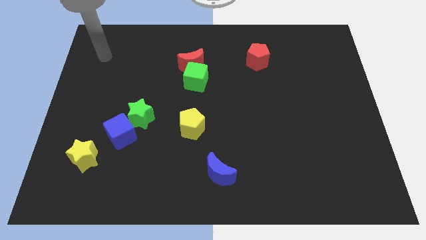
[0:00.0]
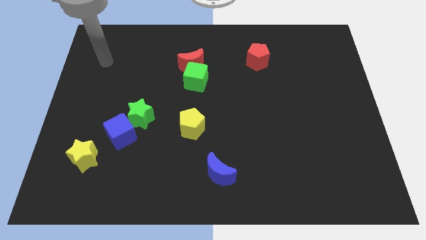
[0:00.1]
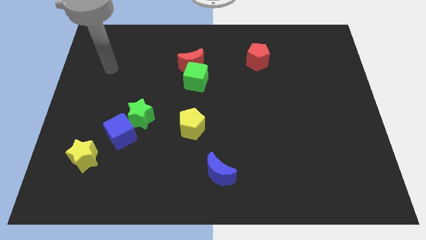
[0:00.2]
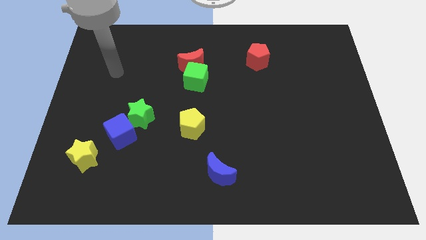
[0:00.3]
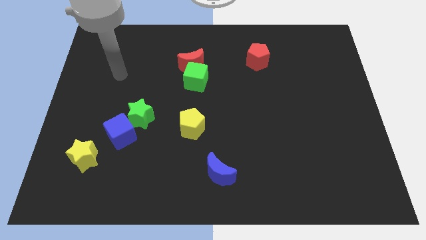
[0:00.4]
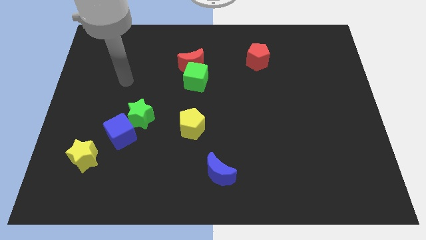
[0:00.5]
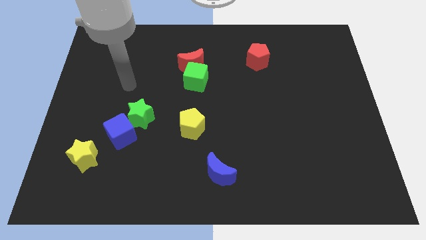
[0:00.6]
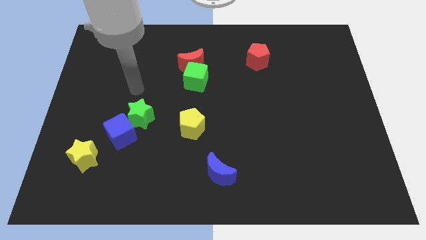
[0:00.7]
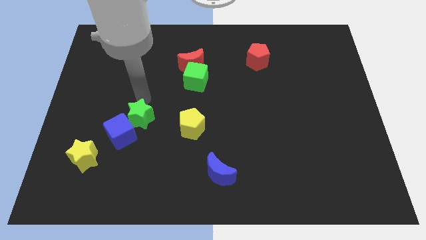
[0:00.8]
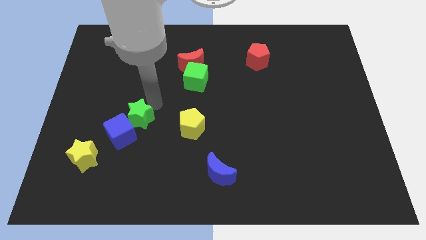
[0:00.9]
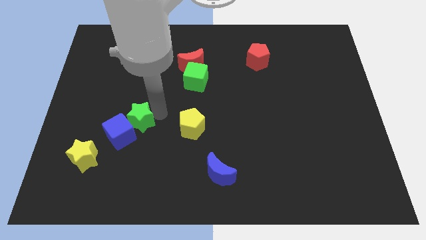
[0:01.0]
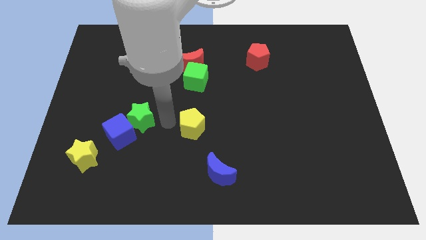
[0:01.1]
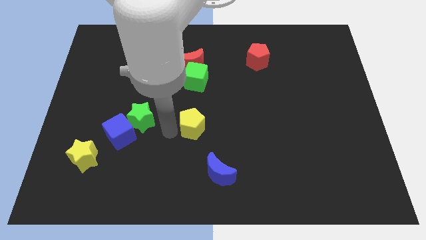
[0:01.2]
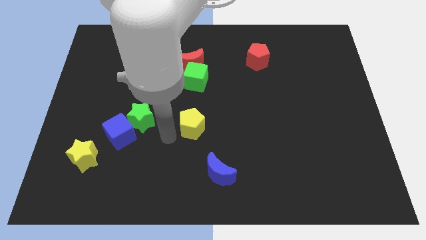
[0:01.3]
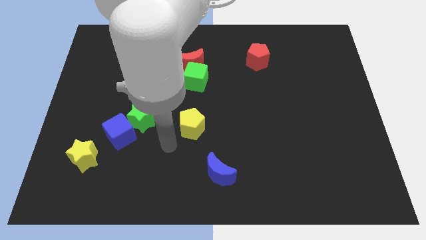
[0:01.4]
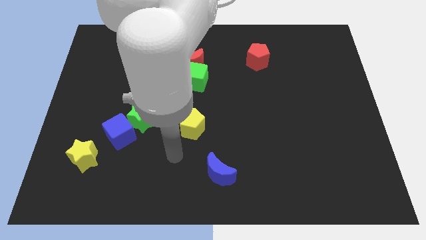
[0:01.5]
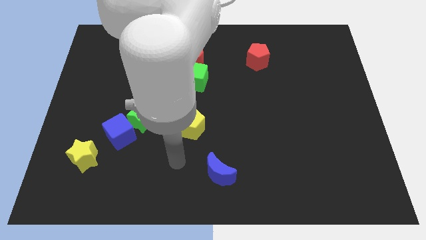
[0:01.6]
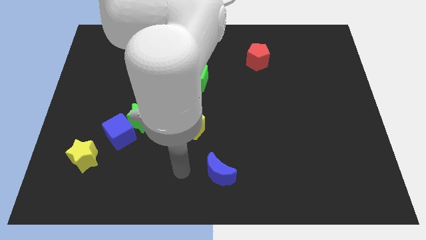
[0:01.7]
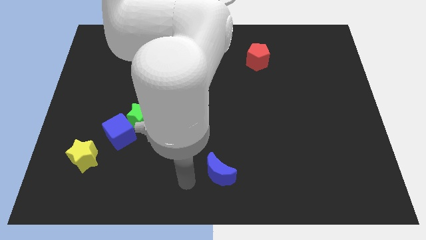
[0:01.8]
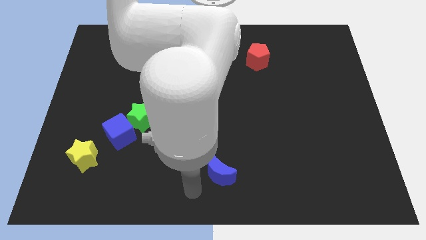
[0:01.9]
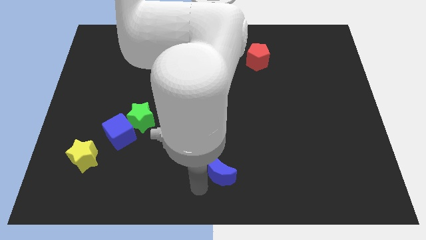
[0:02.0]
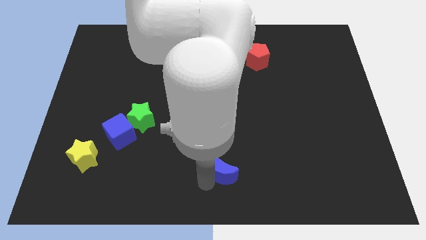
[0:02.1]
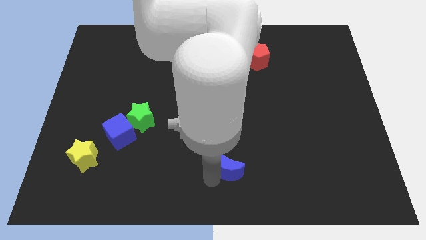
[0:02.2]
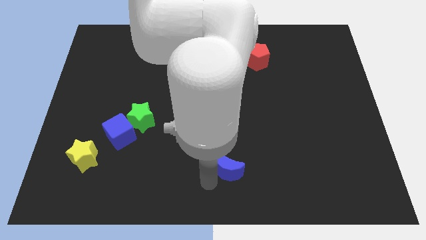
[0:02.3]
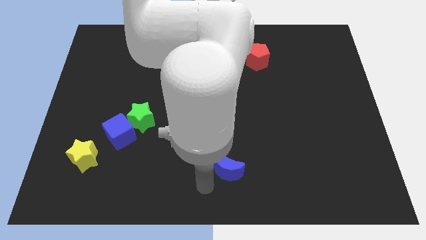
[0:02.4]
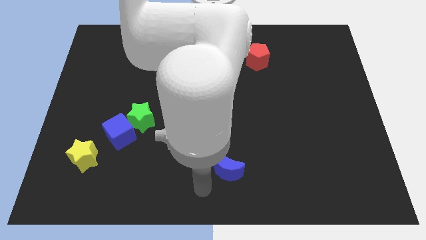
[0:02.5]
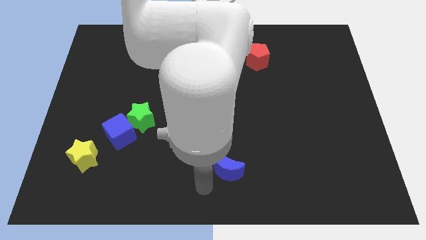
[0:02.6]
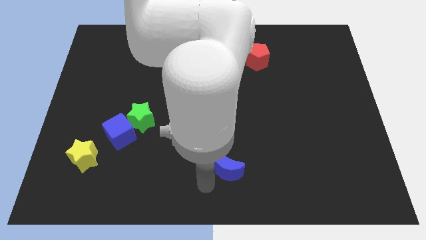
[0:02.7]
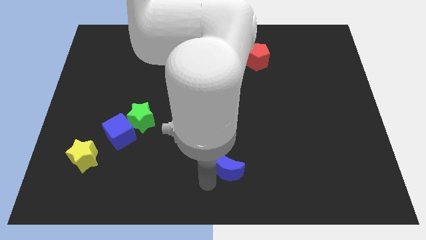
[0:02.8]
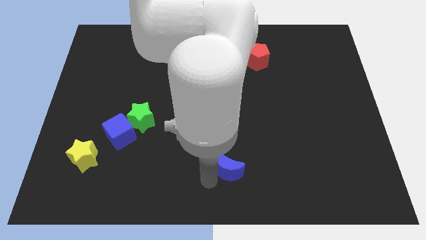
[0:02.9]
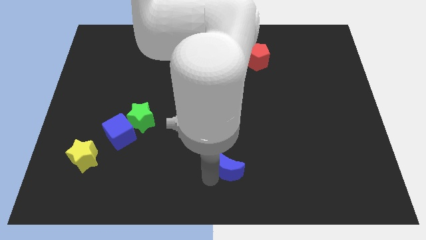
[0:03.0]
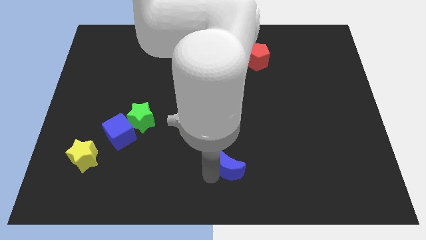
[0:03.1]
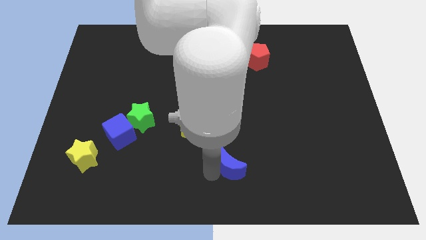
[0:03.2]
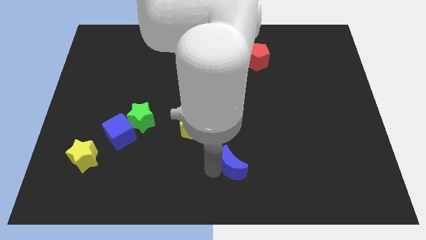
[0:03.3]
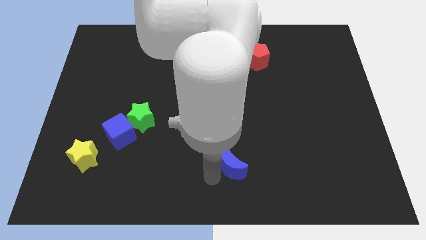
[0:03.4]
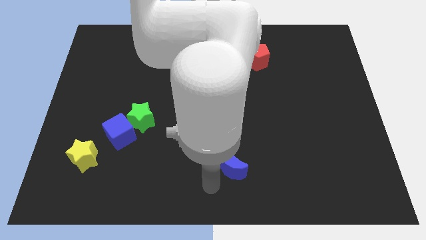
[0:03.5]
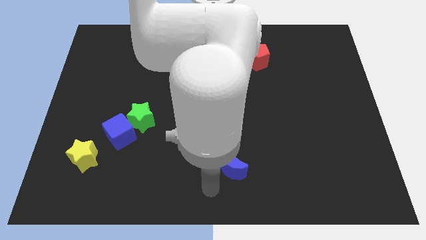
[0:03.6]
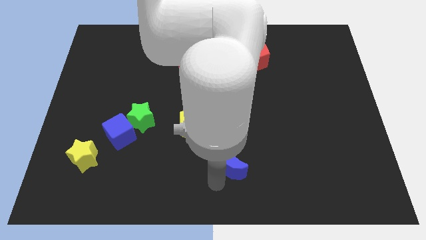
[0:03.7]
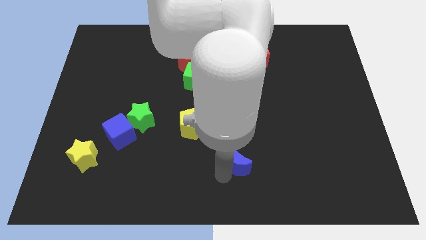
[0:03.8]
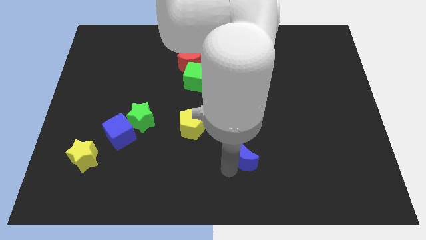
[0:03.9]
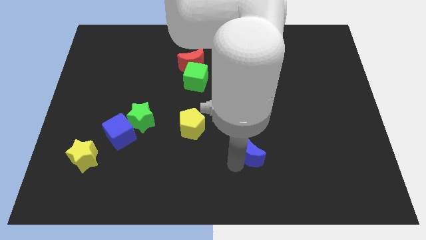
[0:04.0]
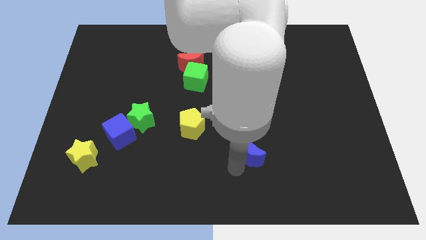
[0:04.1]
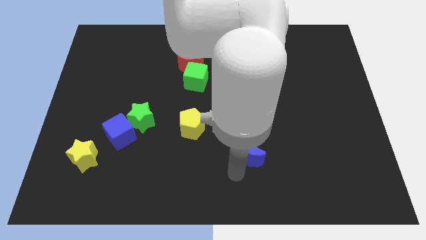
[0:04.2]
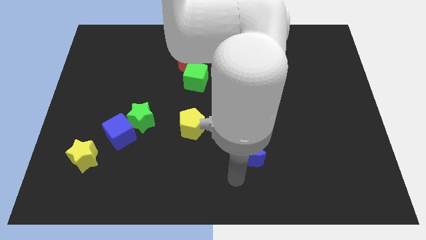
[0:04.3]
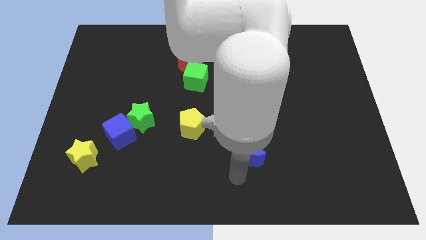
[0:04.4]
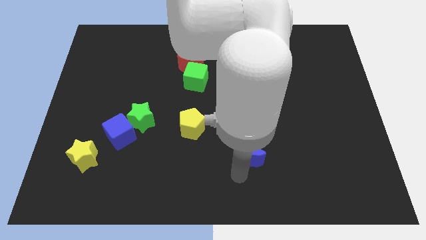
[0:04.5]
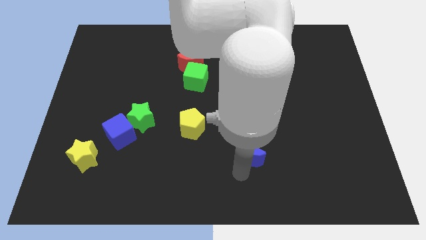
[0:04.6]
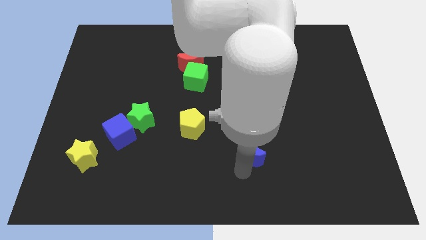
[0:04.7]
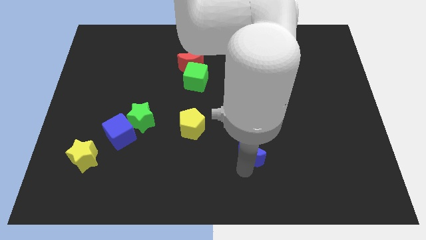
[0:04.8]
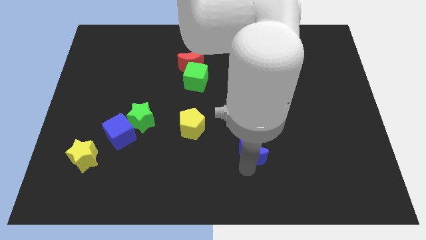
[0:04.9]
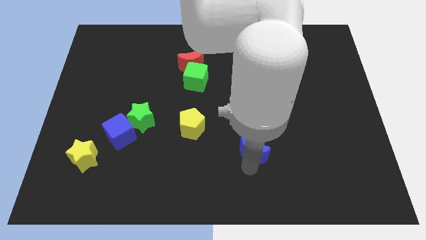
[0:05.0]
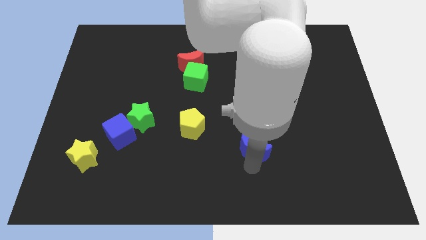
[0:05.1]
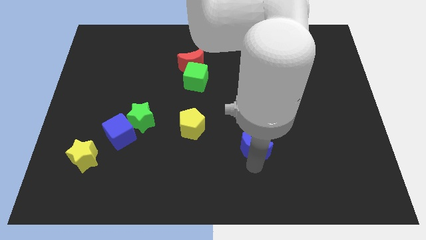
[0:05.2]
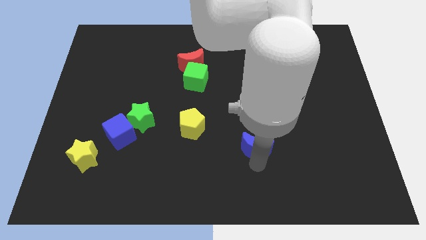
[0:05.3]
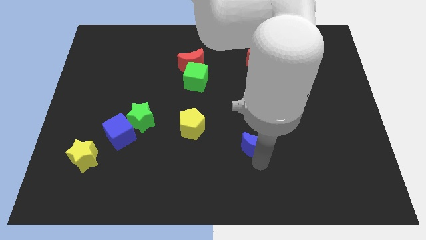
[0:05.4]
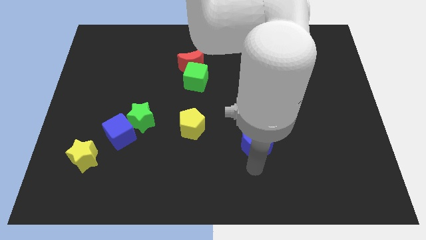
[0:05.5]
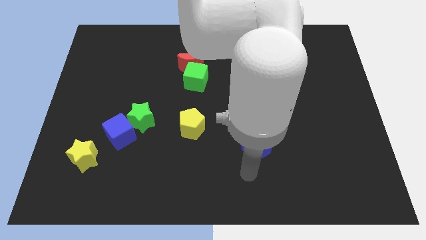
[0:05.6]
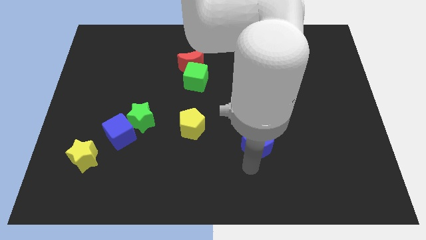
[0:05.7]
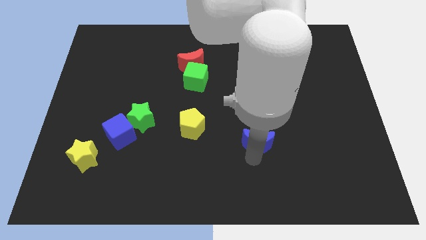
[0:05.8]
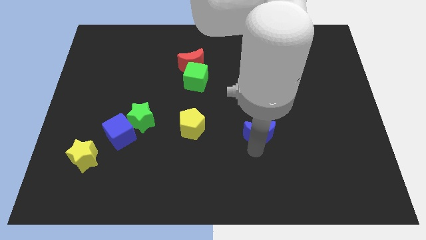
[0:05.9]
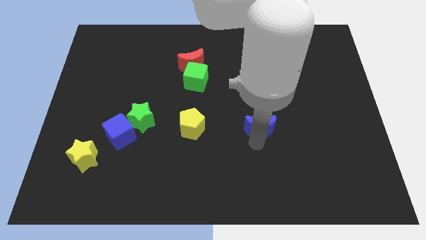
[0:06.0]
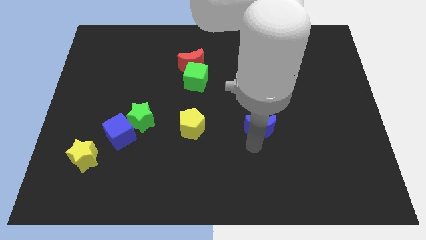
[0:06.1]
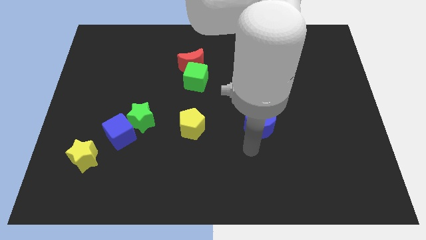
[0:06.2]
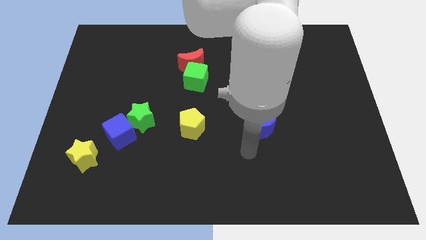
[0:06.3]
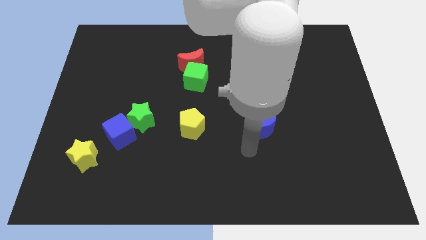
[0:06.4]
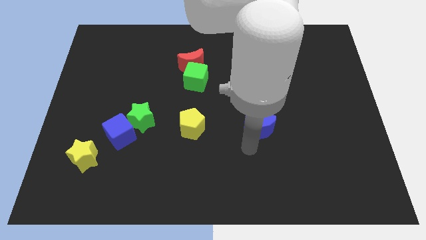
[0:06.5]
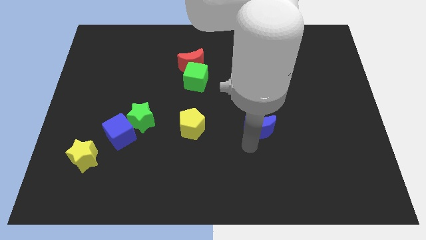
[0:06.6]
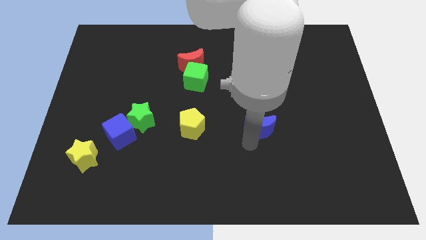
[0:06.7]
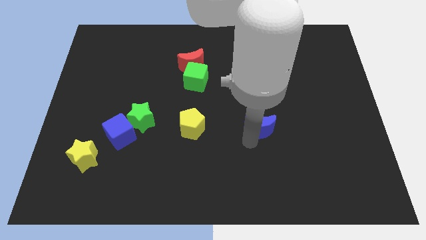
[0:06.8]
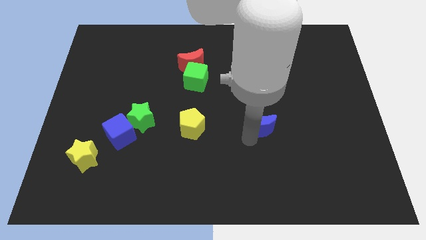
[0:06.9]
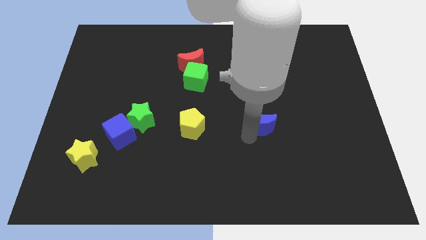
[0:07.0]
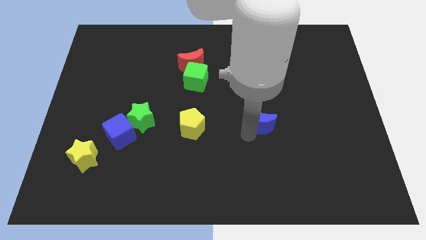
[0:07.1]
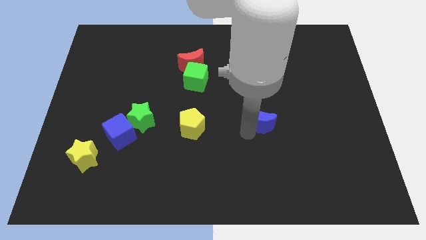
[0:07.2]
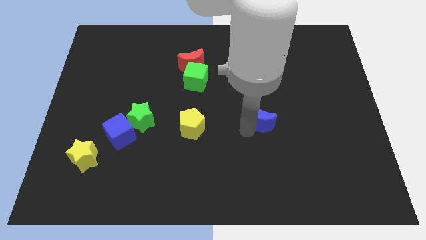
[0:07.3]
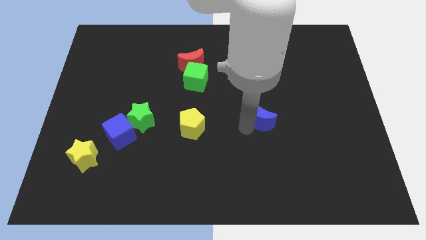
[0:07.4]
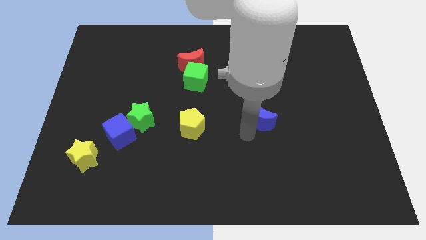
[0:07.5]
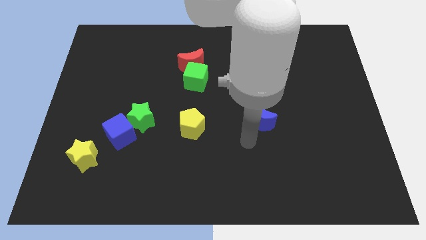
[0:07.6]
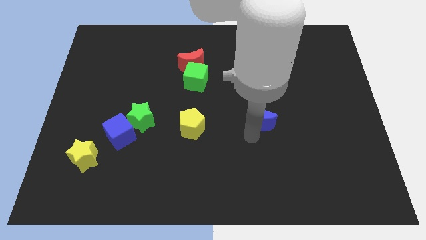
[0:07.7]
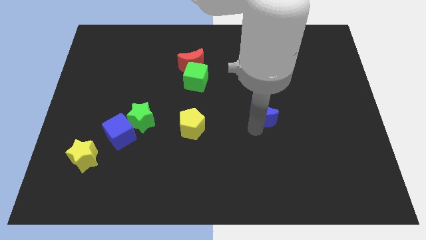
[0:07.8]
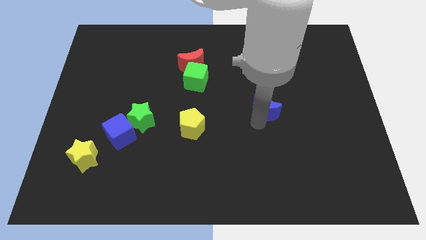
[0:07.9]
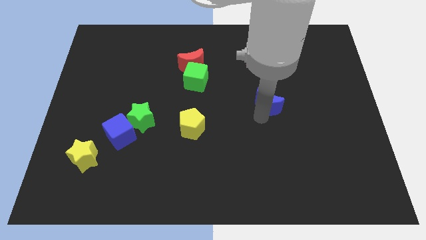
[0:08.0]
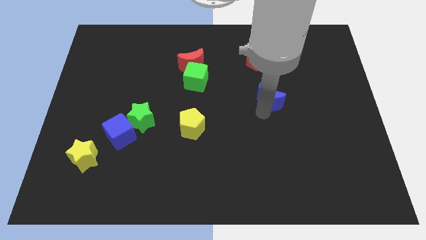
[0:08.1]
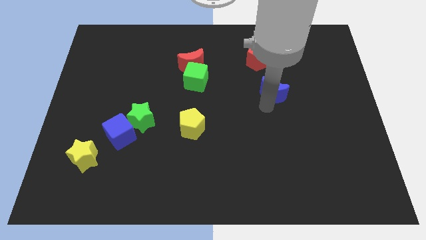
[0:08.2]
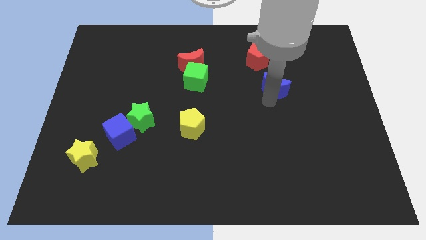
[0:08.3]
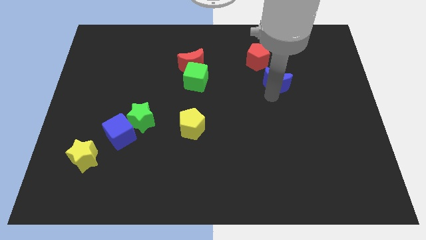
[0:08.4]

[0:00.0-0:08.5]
push the blue moon to the bottom right of the red pentagon
